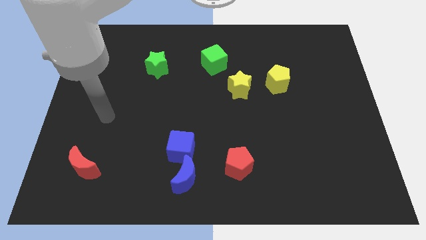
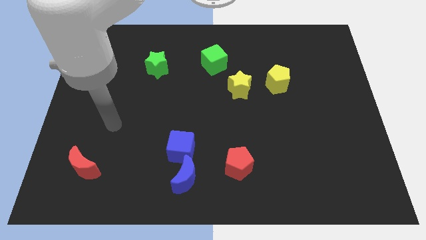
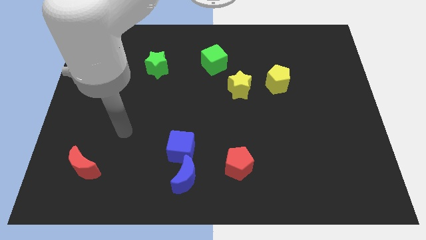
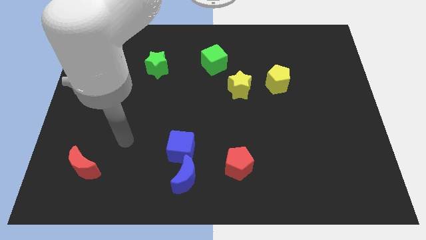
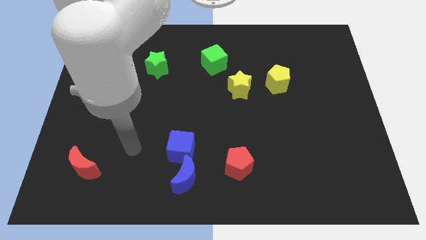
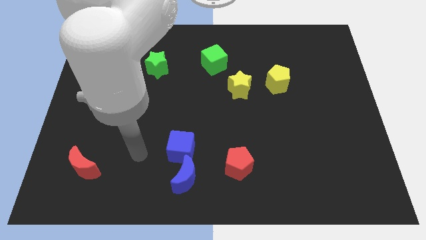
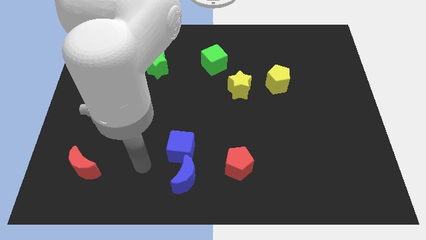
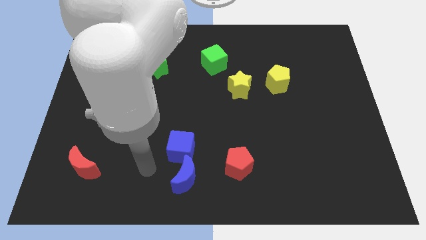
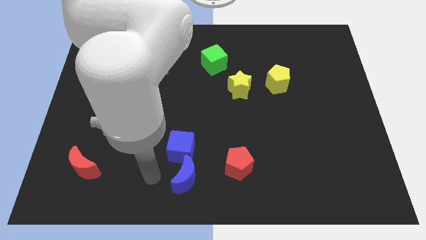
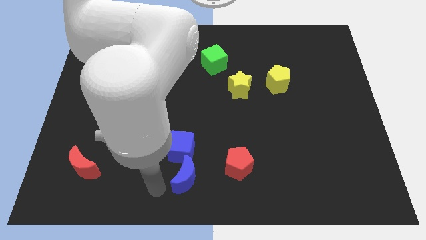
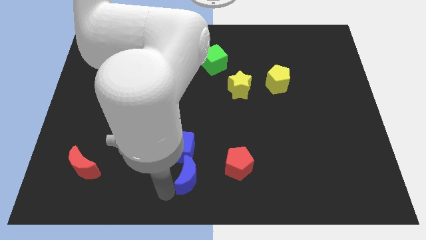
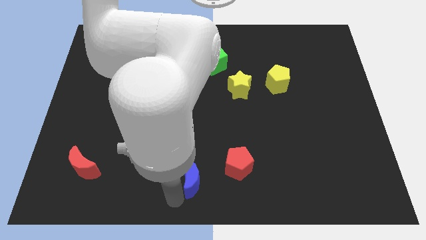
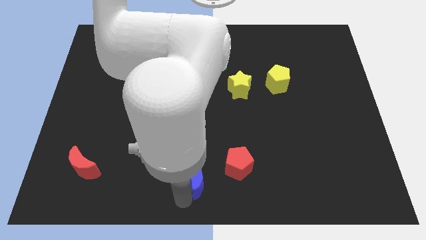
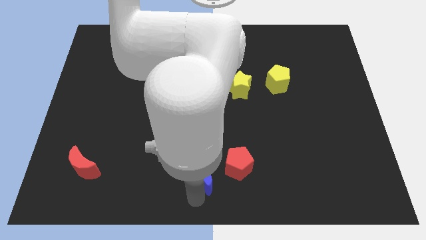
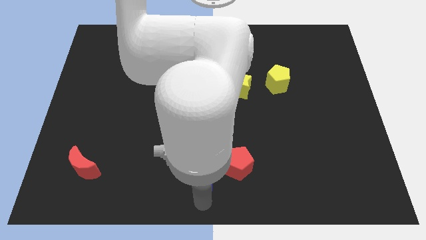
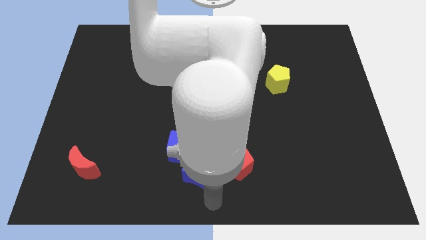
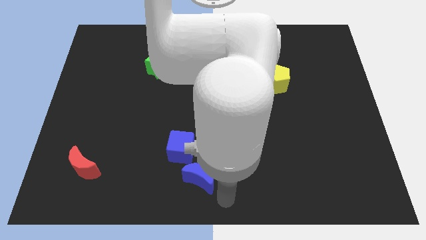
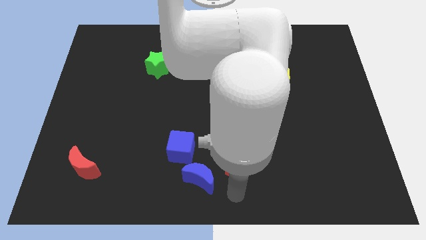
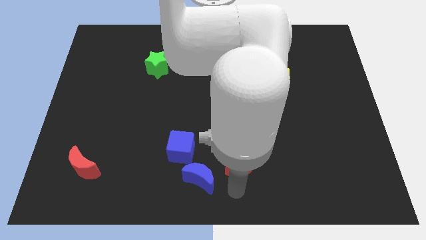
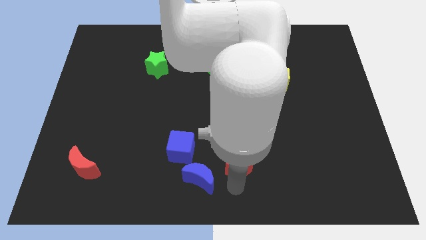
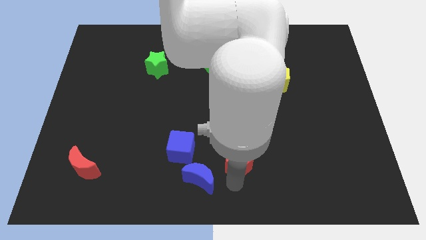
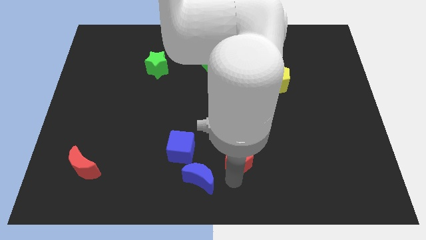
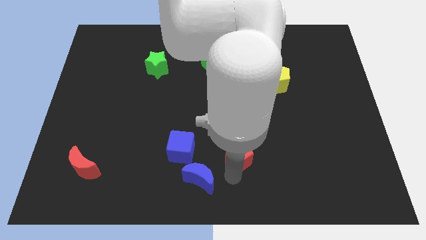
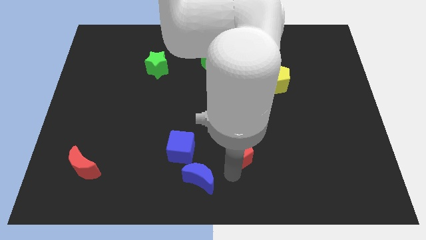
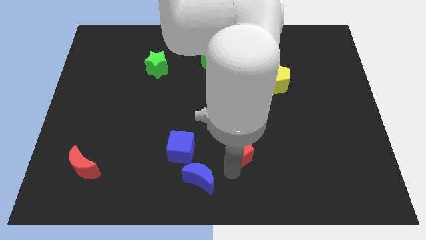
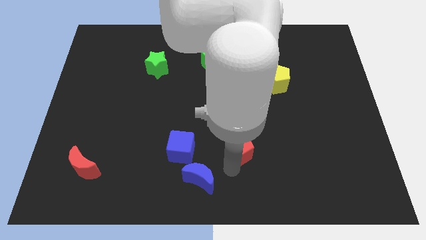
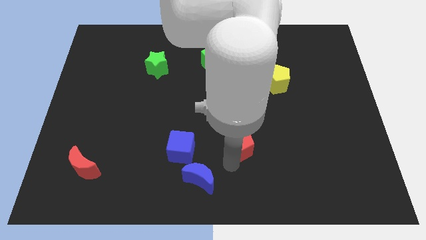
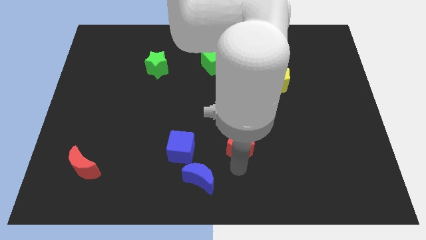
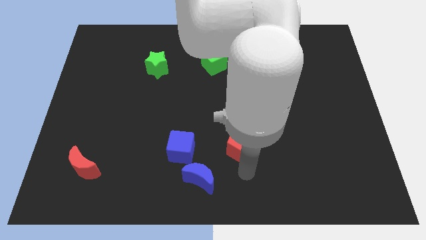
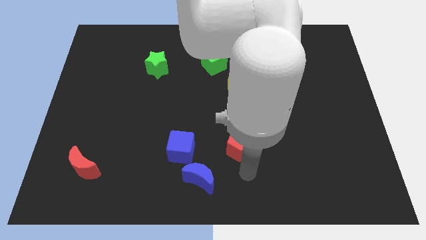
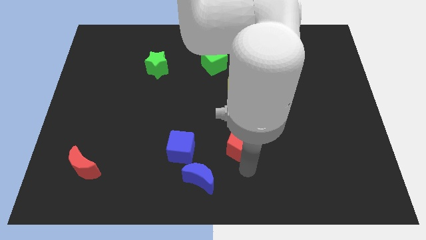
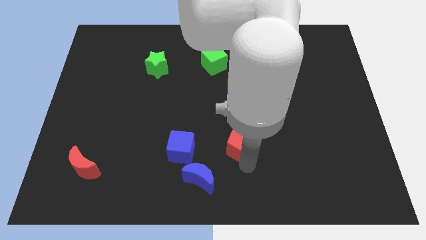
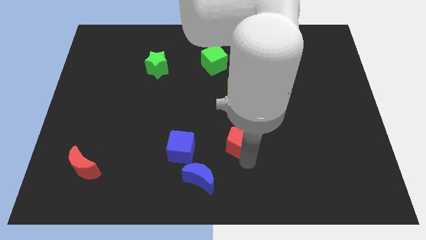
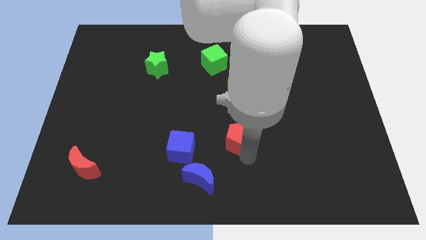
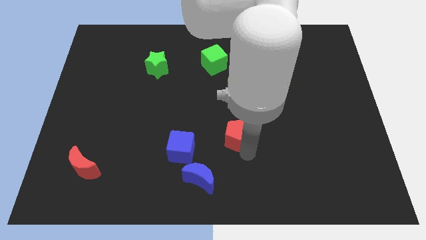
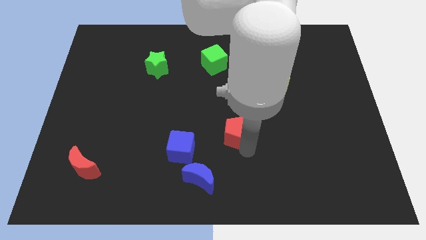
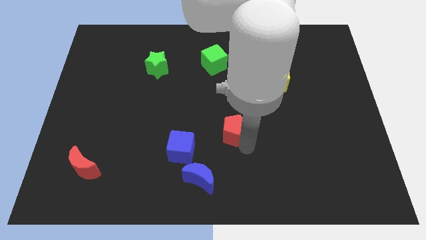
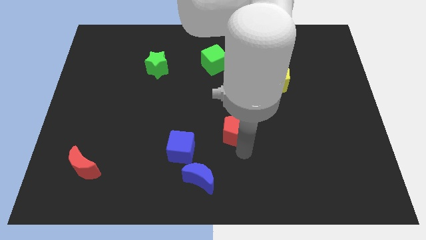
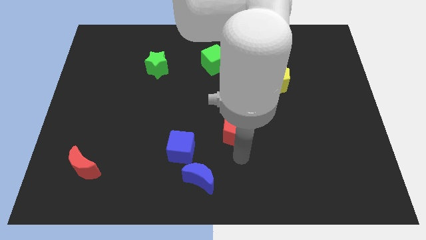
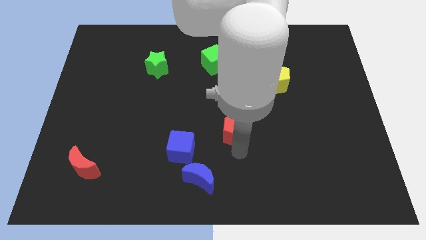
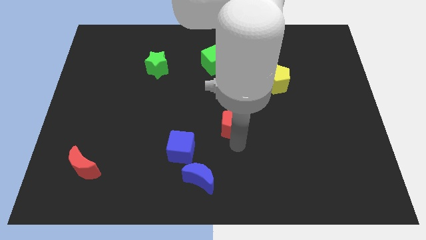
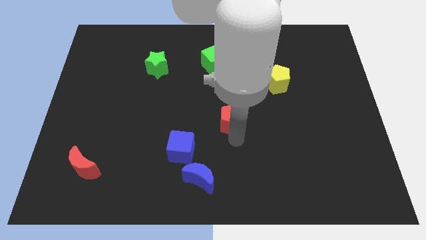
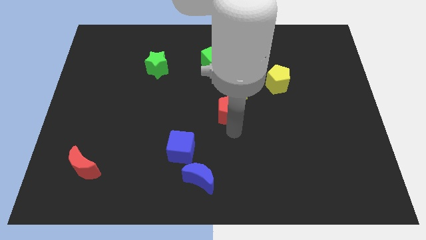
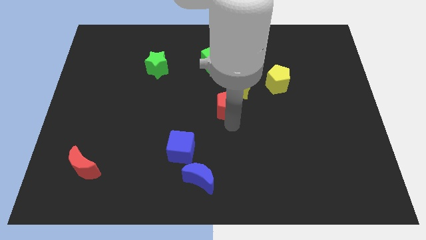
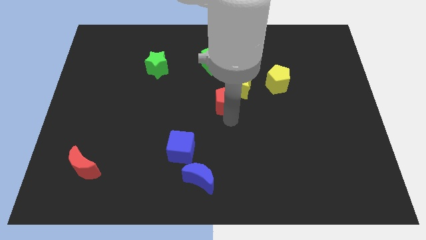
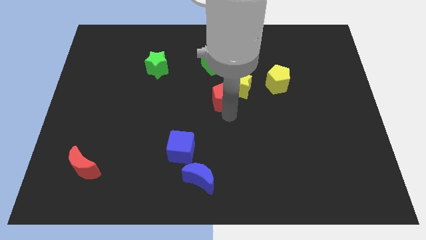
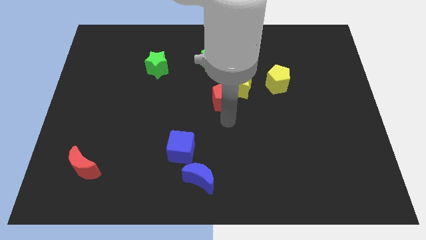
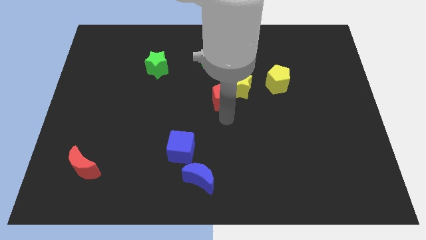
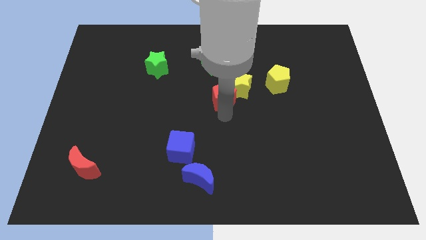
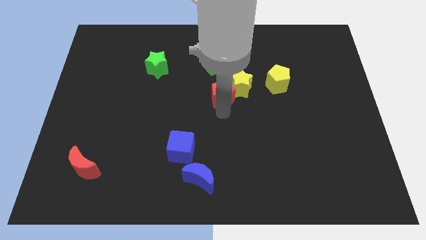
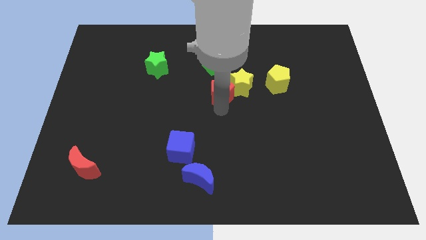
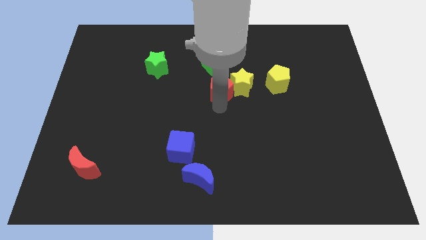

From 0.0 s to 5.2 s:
move the red pentagon to the top left side of the yellow star

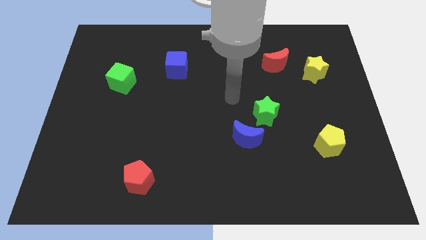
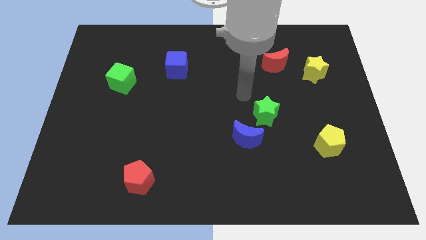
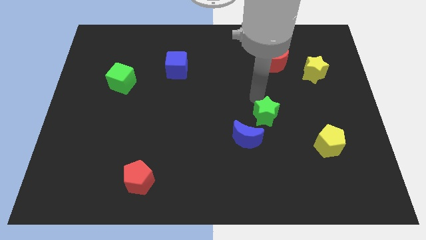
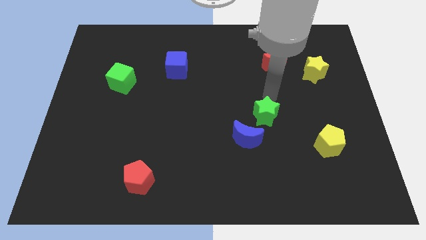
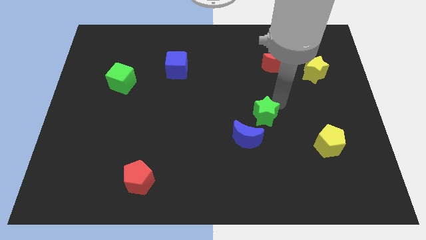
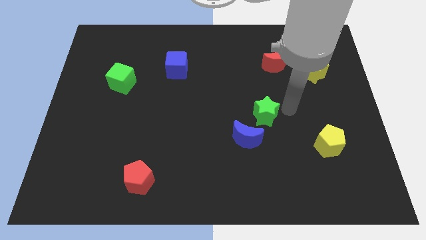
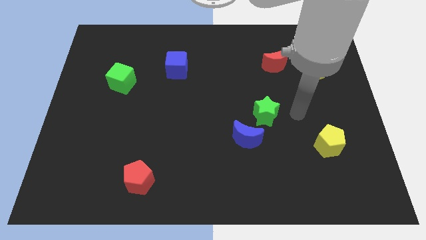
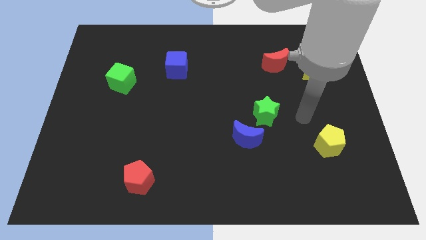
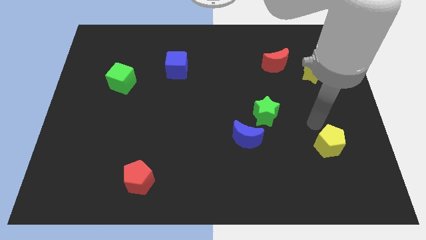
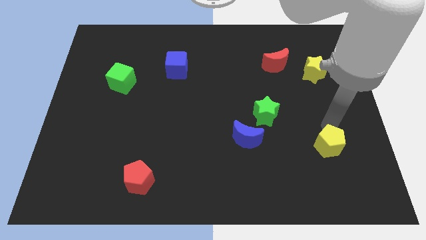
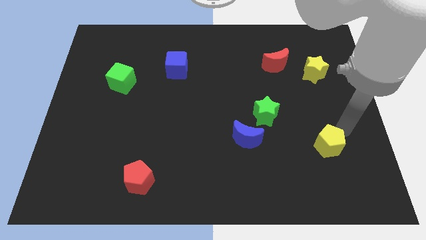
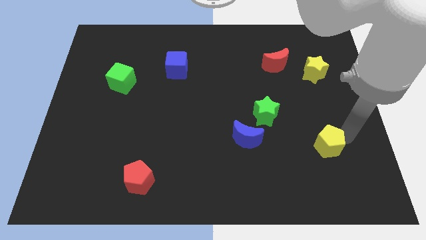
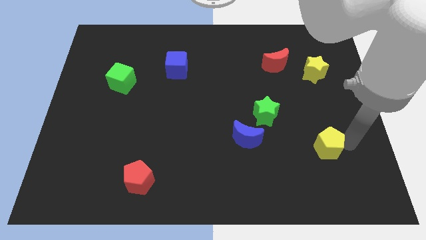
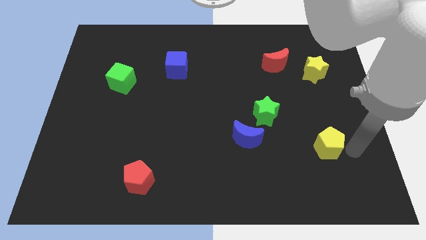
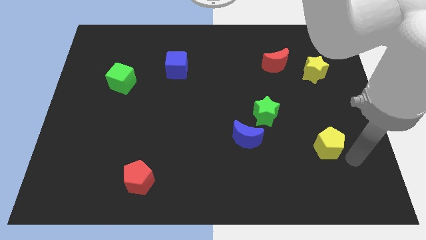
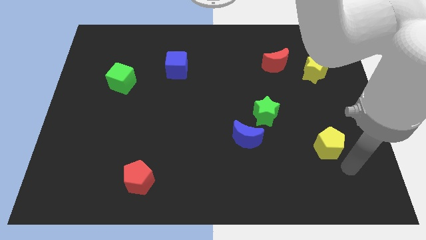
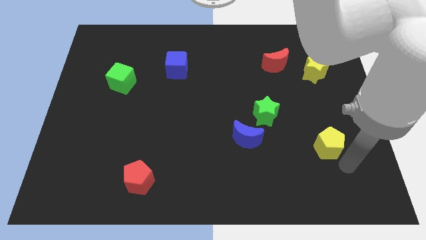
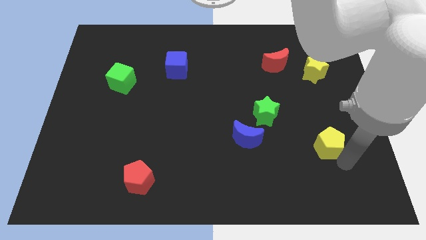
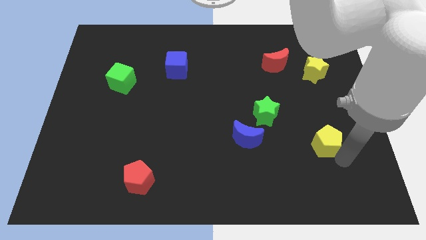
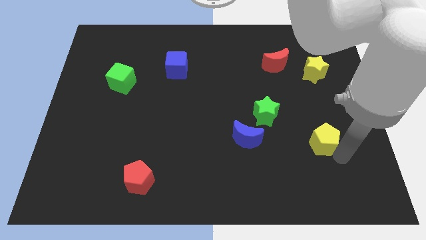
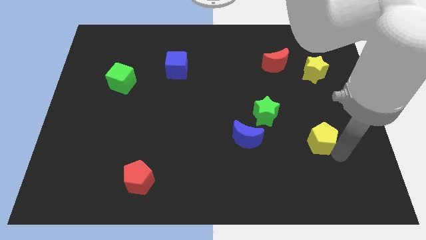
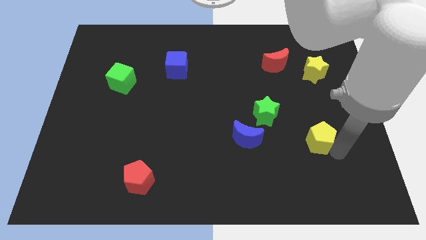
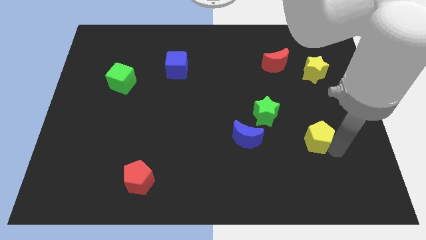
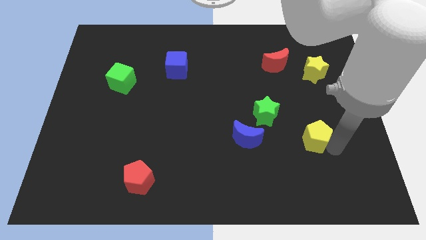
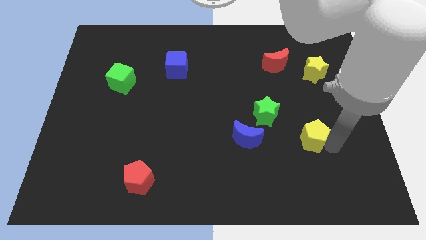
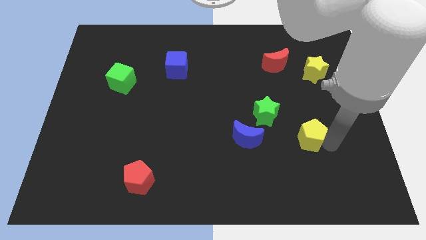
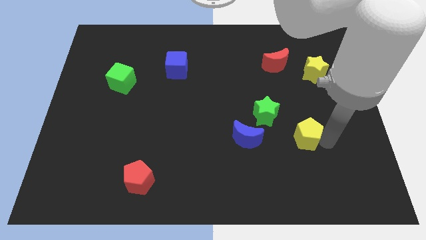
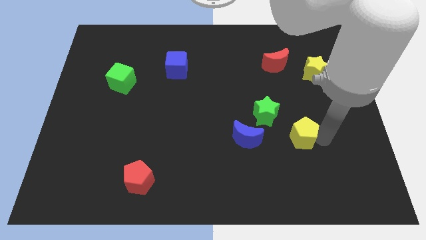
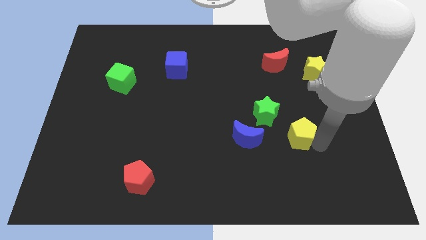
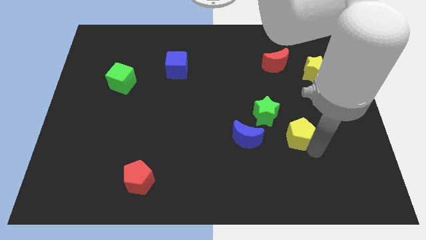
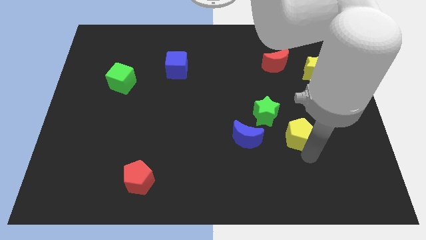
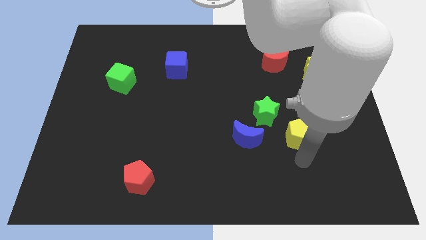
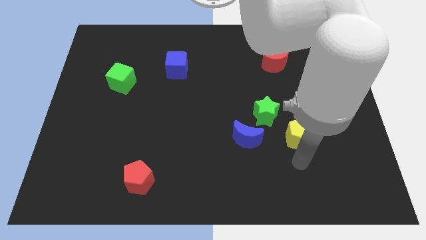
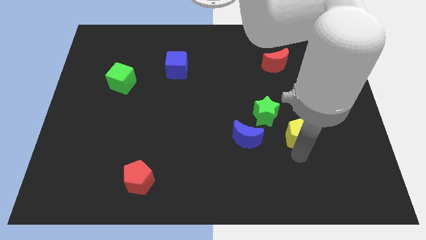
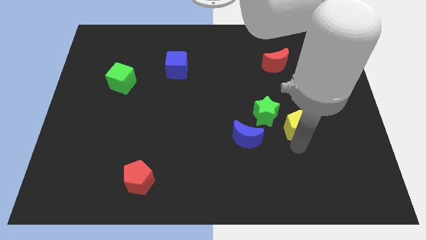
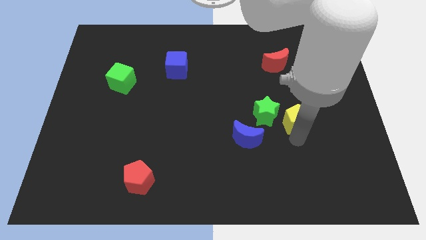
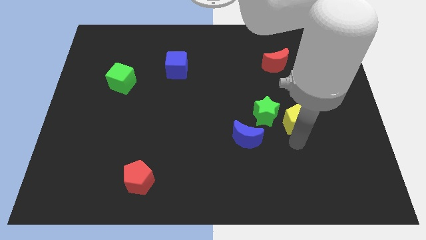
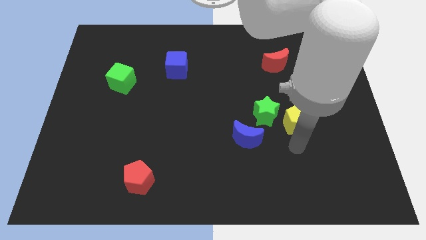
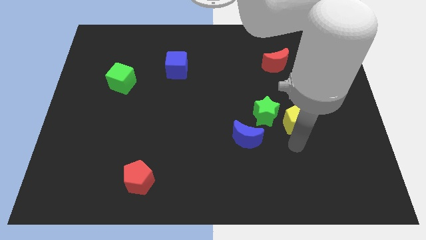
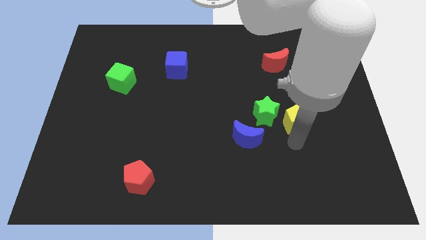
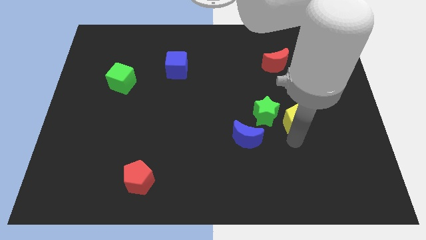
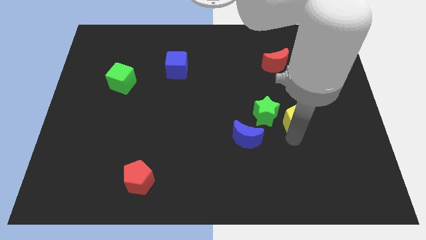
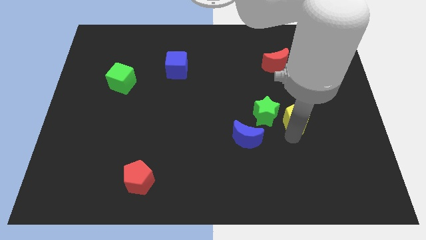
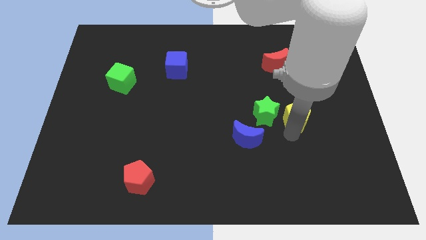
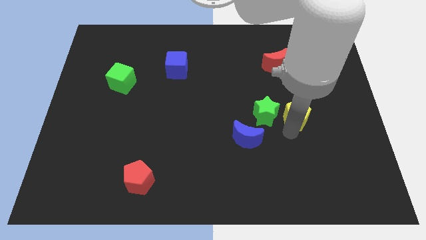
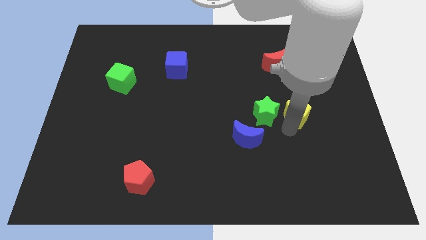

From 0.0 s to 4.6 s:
move the yellow pentagon to the top right of the green star
